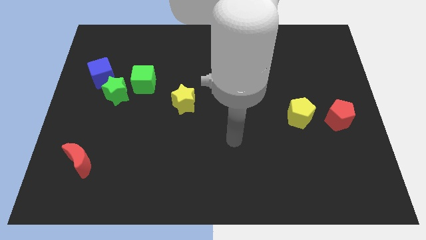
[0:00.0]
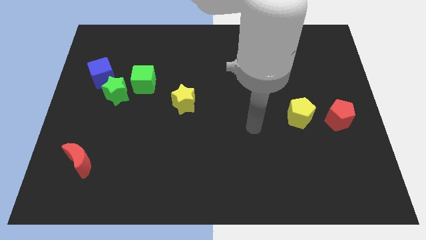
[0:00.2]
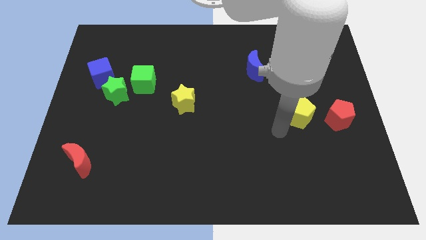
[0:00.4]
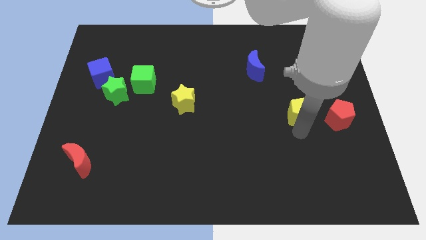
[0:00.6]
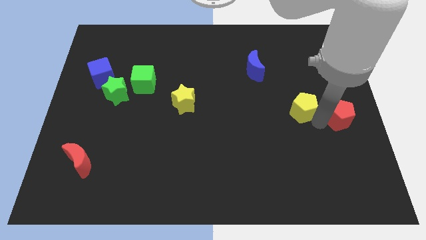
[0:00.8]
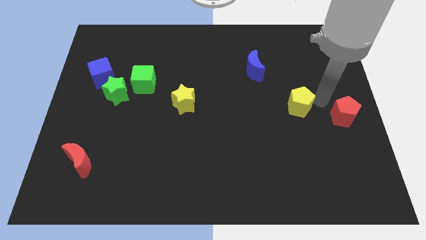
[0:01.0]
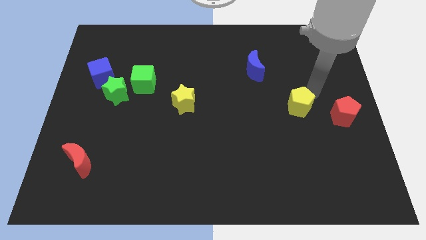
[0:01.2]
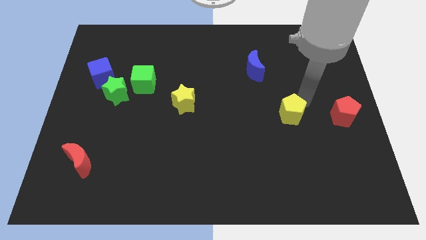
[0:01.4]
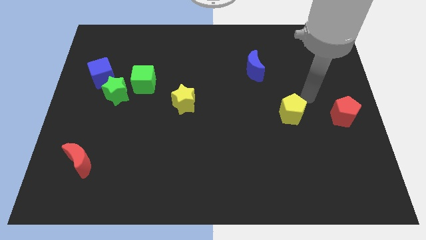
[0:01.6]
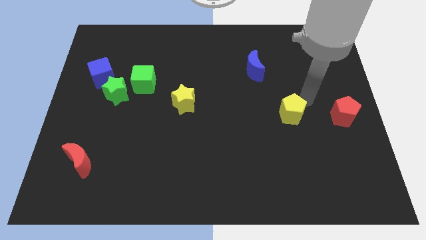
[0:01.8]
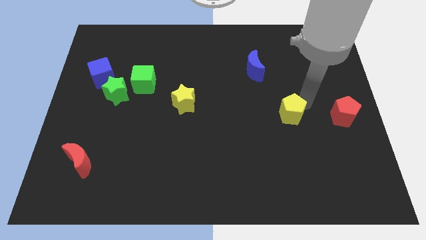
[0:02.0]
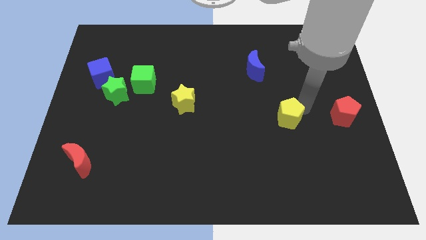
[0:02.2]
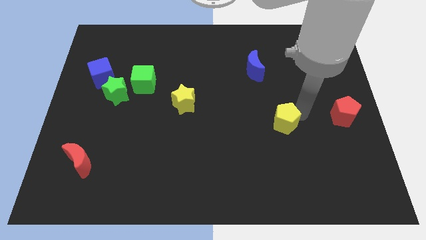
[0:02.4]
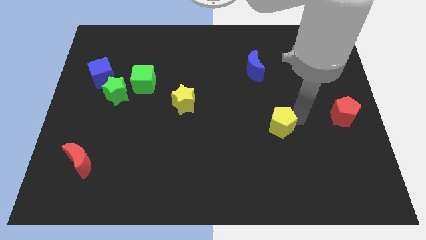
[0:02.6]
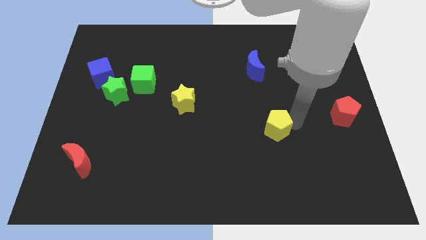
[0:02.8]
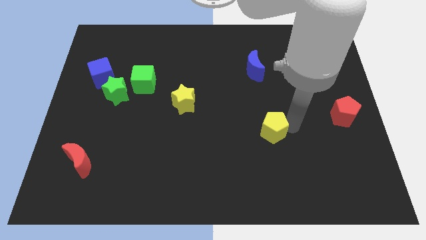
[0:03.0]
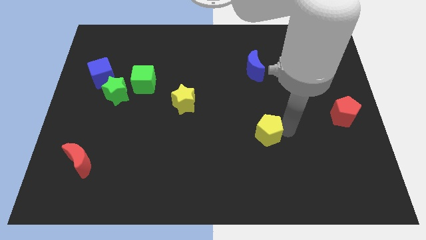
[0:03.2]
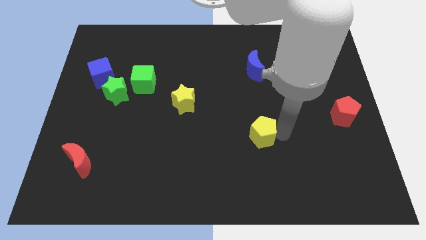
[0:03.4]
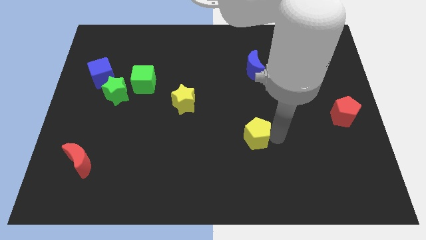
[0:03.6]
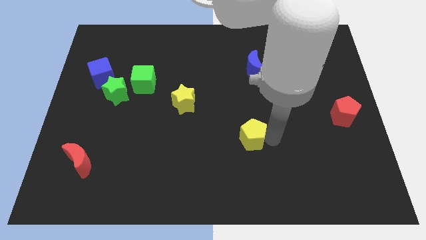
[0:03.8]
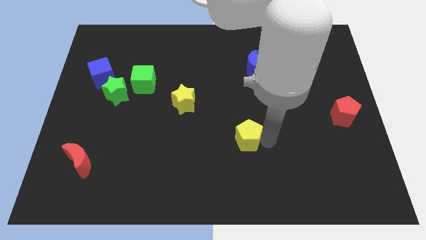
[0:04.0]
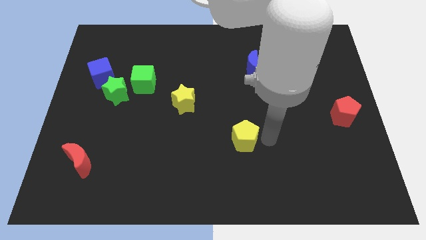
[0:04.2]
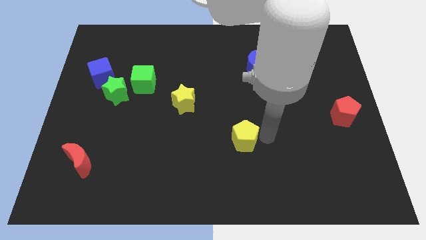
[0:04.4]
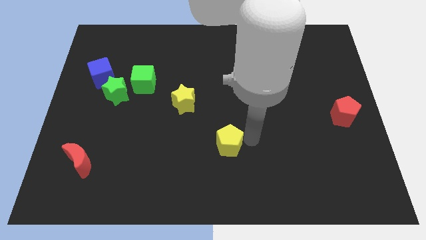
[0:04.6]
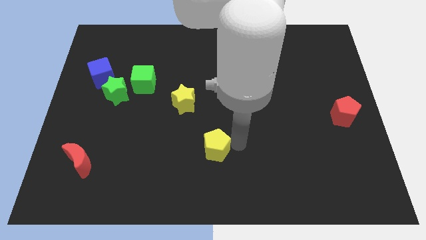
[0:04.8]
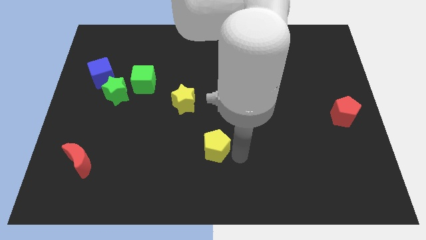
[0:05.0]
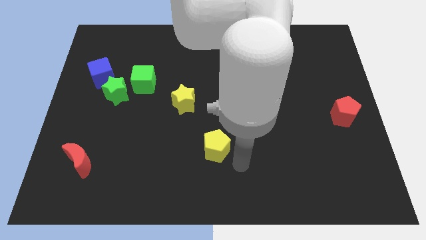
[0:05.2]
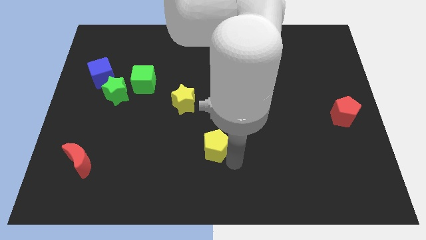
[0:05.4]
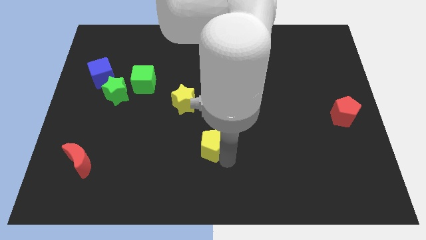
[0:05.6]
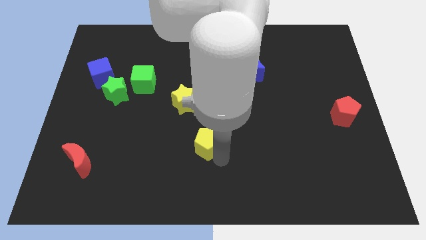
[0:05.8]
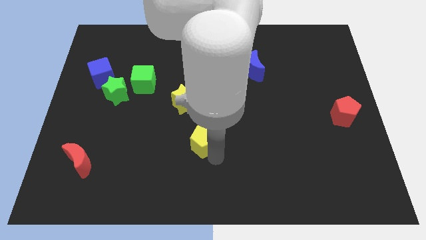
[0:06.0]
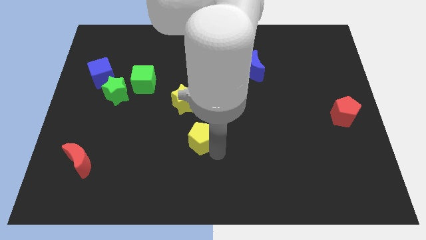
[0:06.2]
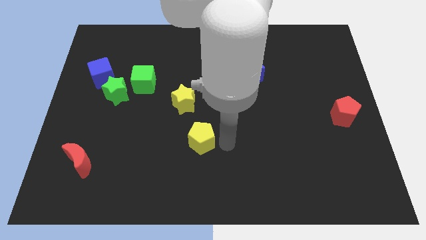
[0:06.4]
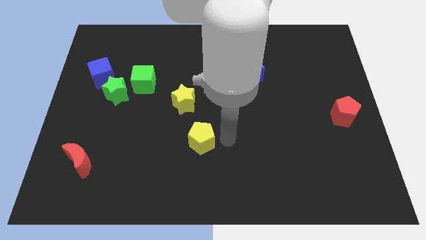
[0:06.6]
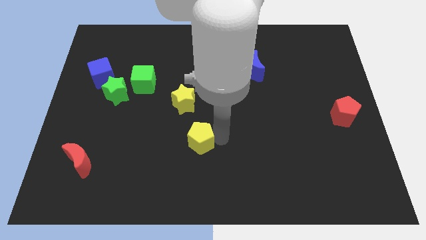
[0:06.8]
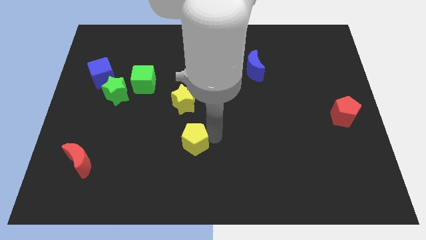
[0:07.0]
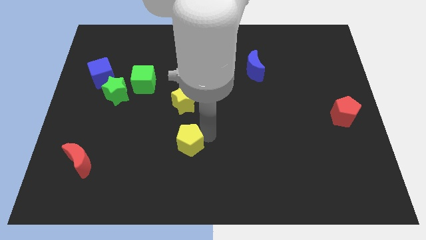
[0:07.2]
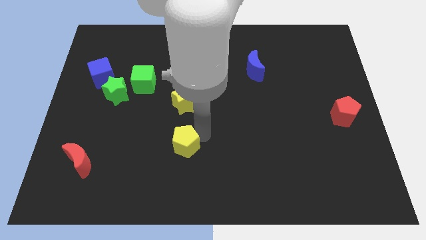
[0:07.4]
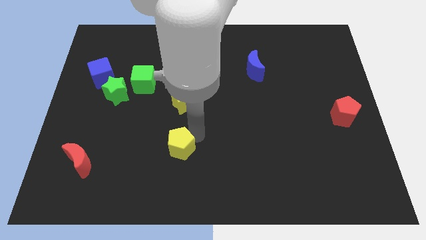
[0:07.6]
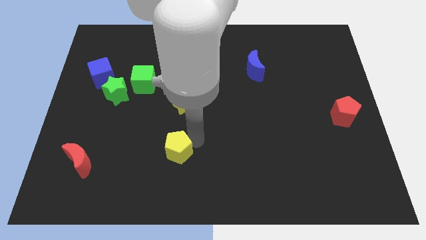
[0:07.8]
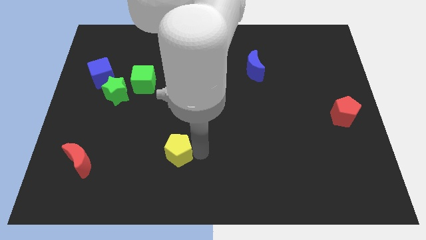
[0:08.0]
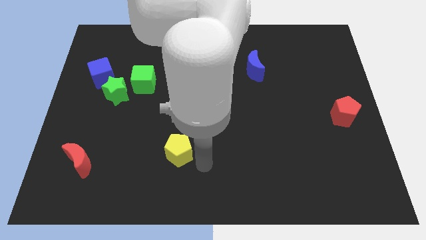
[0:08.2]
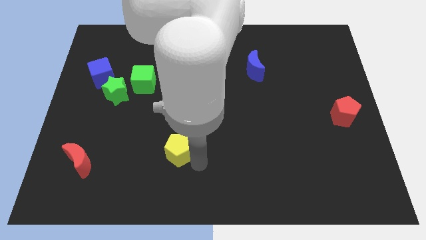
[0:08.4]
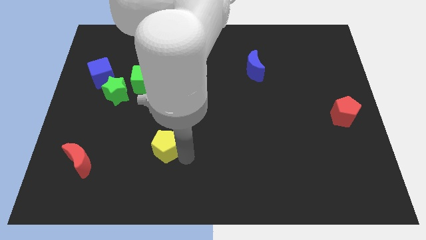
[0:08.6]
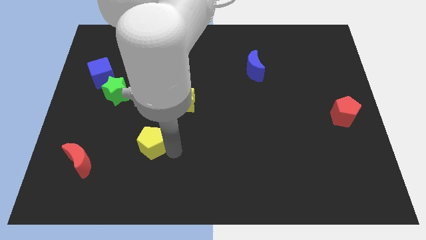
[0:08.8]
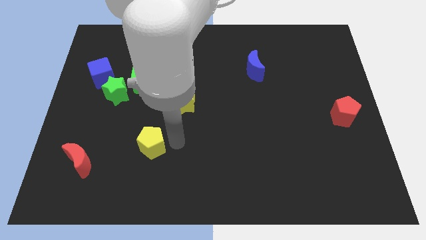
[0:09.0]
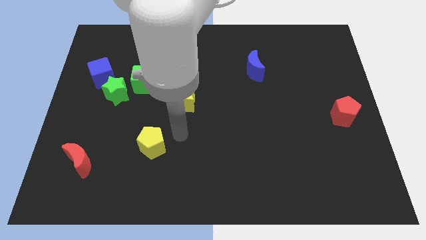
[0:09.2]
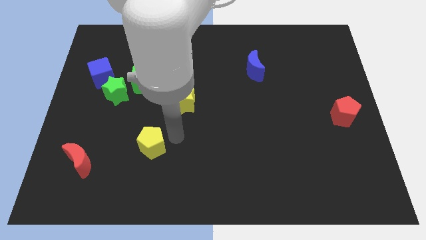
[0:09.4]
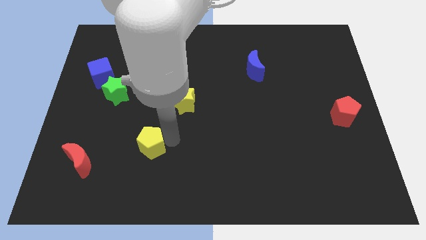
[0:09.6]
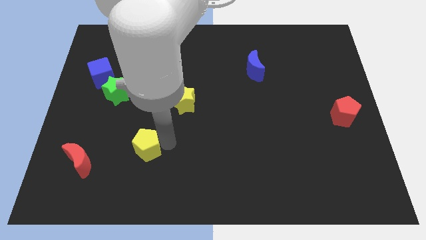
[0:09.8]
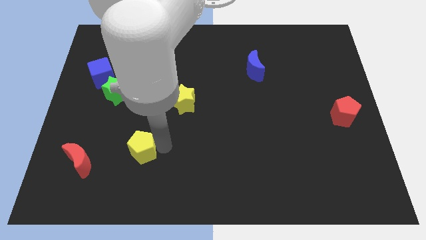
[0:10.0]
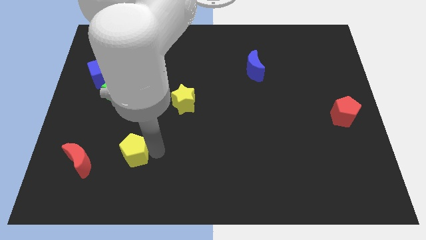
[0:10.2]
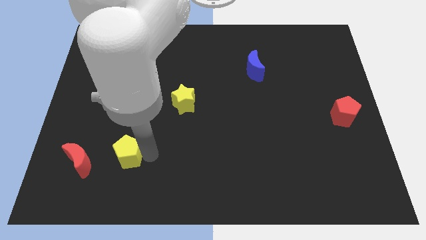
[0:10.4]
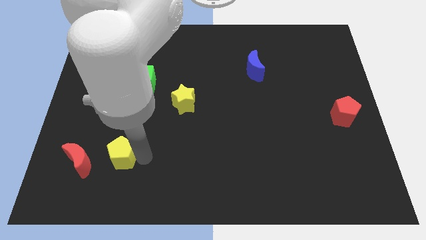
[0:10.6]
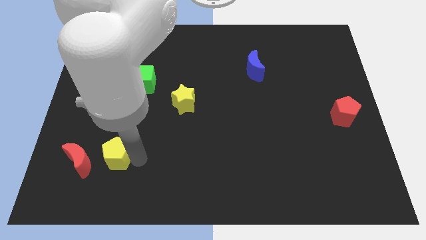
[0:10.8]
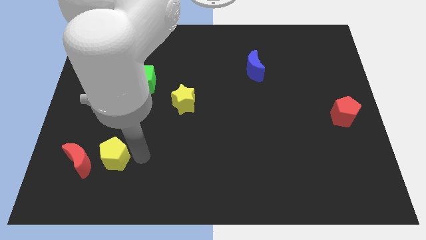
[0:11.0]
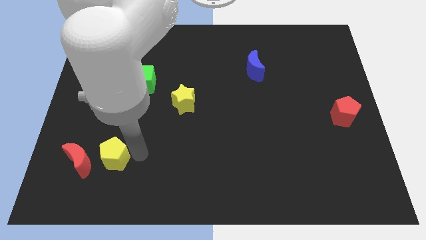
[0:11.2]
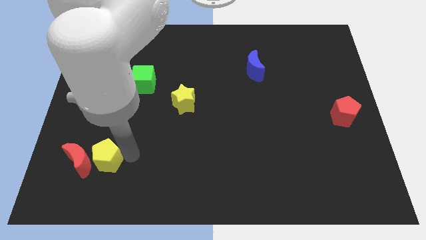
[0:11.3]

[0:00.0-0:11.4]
slide the yellow pentagon next to the red moon

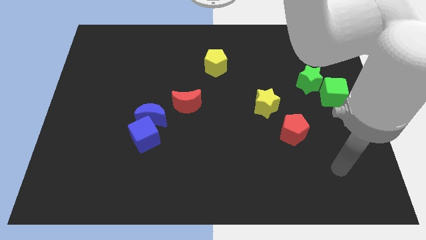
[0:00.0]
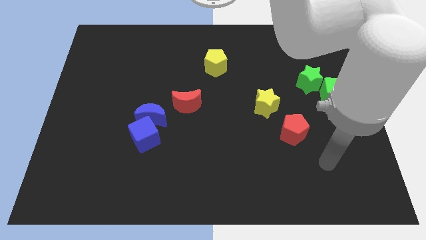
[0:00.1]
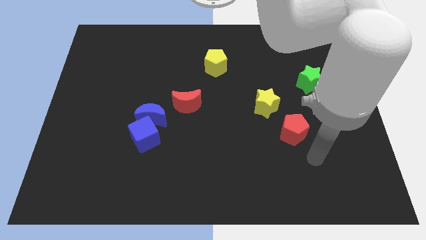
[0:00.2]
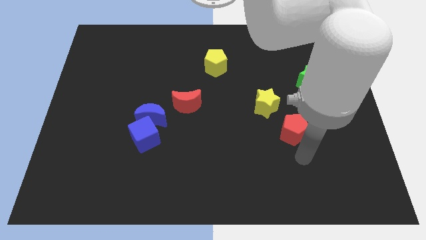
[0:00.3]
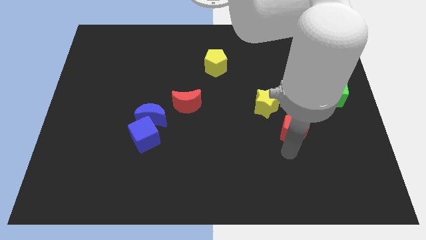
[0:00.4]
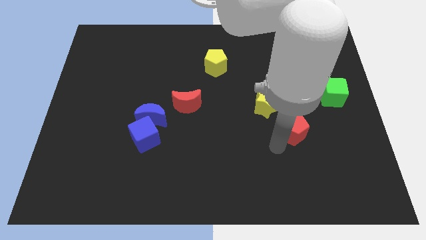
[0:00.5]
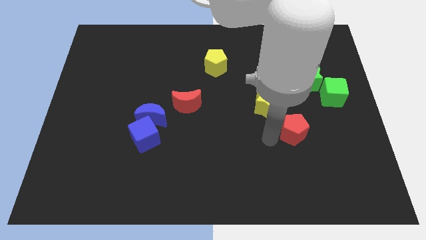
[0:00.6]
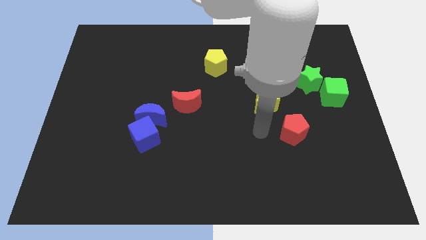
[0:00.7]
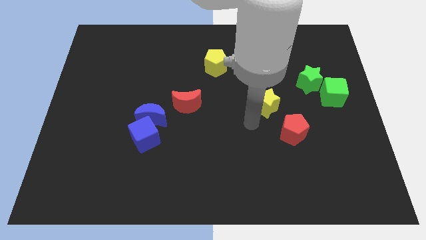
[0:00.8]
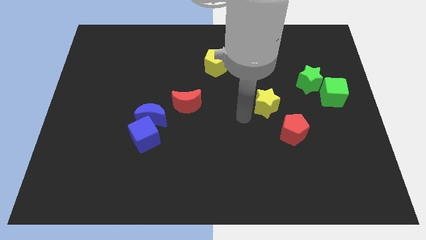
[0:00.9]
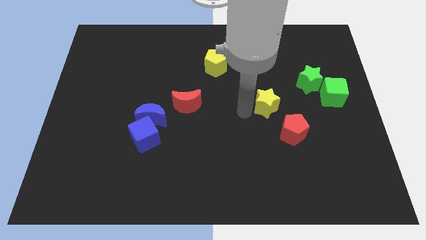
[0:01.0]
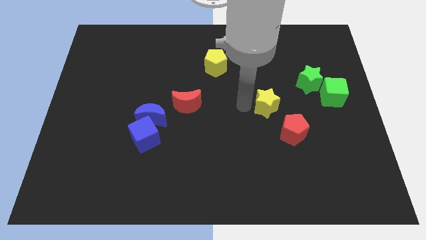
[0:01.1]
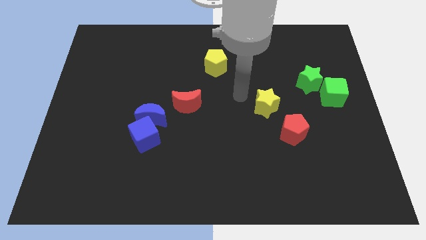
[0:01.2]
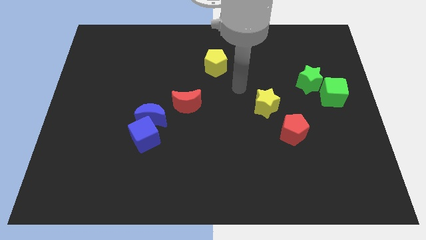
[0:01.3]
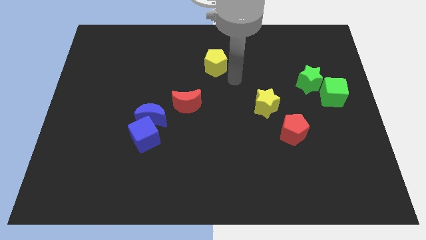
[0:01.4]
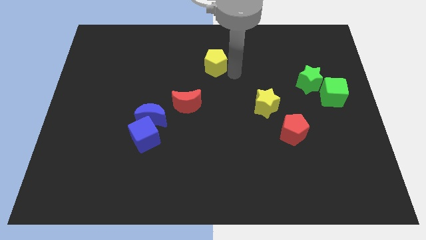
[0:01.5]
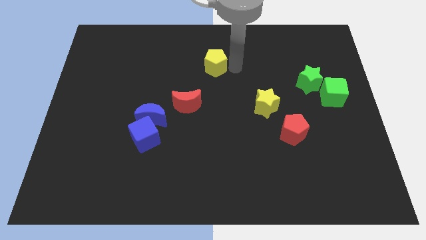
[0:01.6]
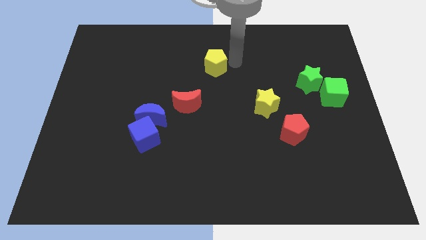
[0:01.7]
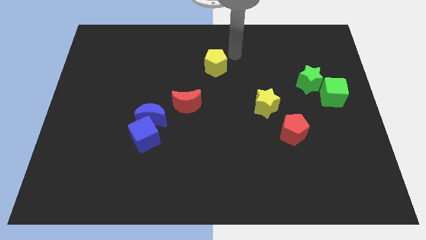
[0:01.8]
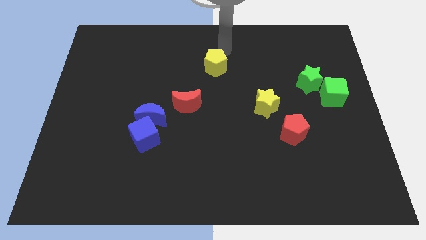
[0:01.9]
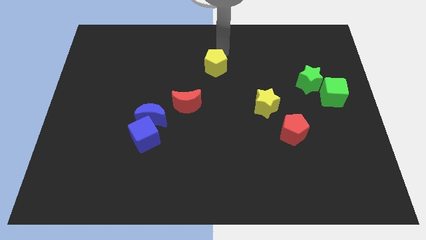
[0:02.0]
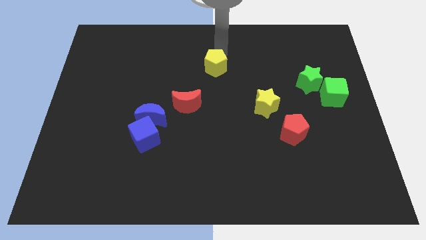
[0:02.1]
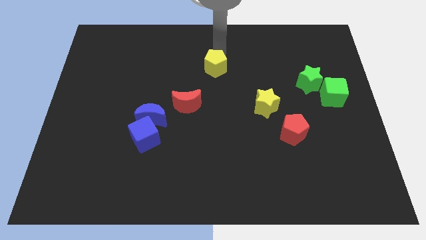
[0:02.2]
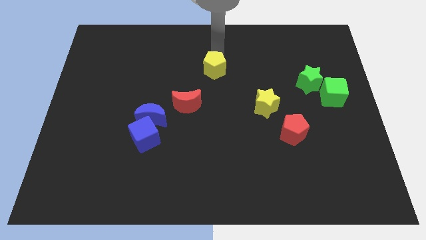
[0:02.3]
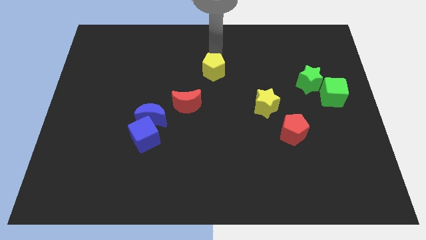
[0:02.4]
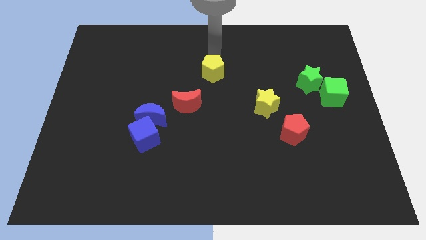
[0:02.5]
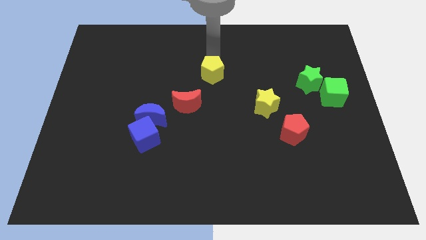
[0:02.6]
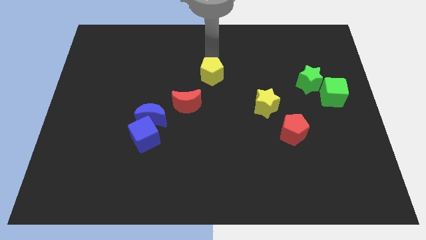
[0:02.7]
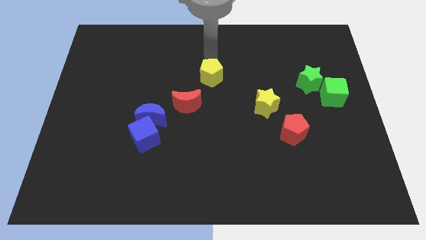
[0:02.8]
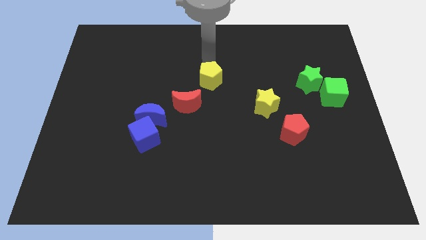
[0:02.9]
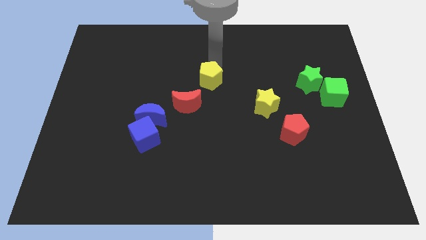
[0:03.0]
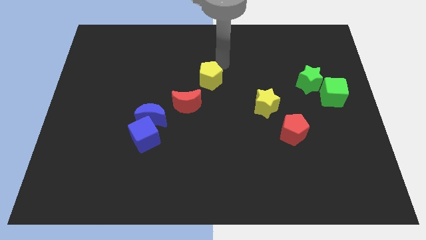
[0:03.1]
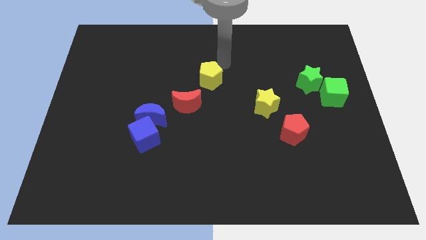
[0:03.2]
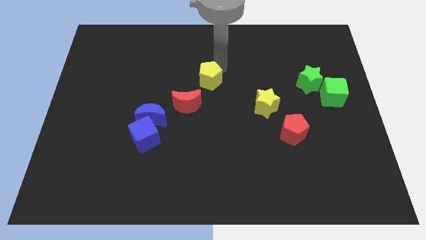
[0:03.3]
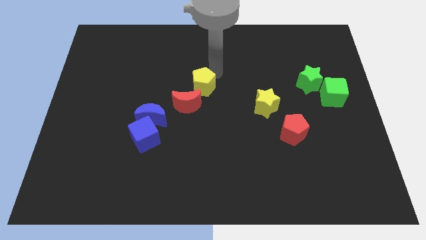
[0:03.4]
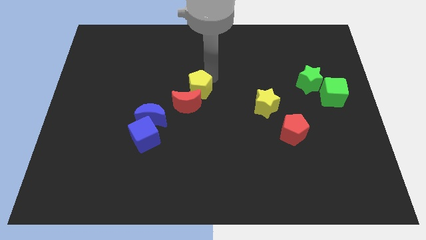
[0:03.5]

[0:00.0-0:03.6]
push the yellow pentagon to the red moon
